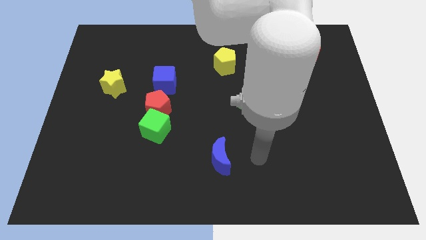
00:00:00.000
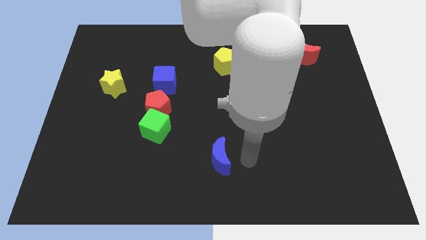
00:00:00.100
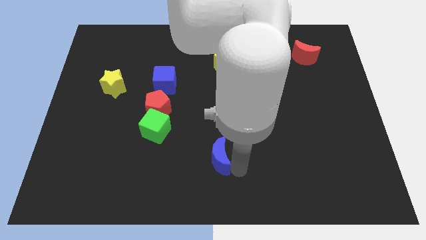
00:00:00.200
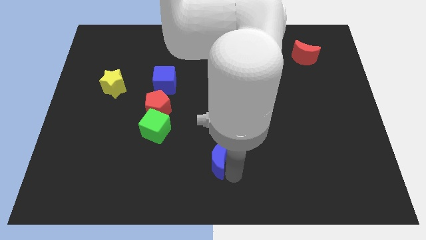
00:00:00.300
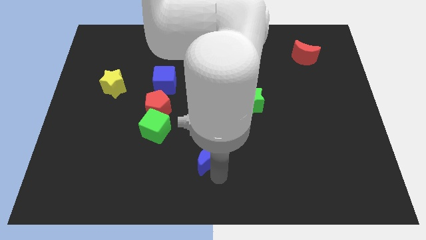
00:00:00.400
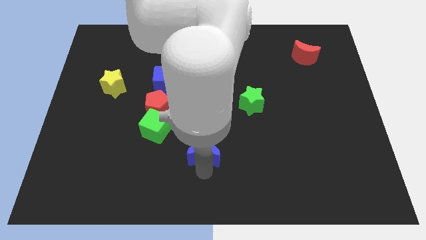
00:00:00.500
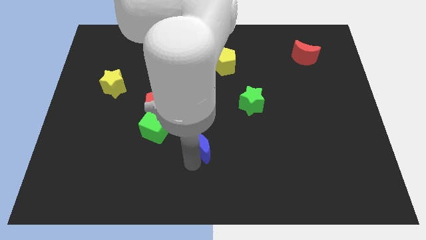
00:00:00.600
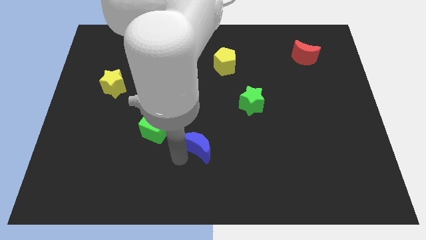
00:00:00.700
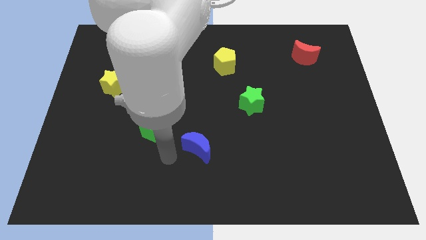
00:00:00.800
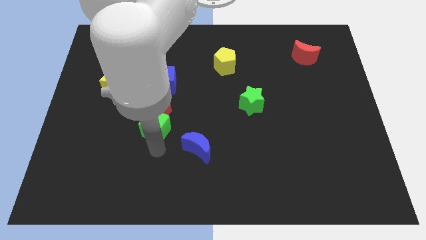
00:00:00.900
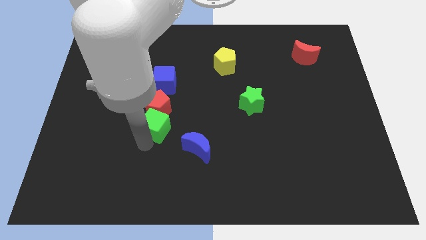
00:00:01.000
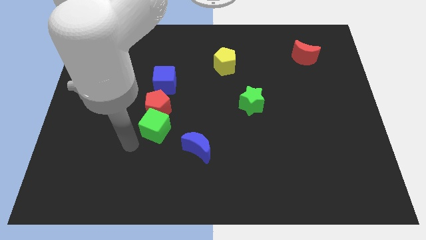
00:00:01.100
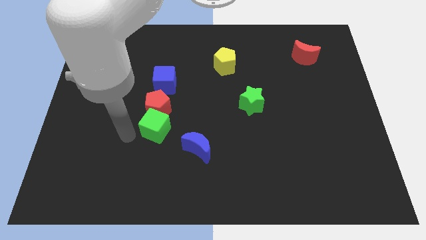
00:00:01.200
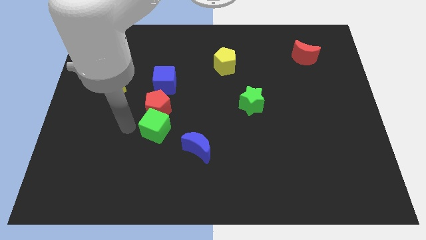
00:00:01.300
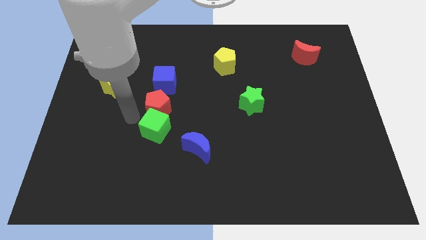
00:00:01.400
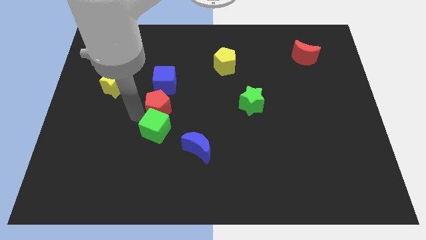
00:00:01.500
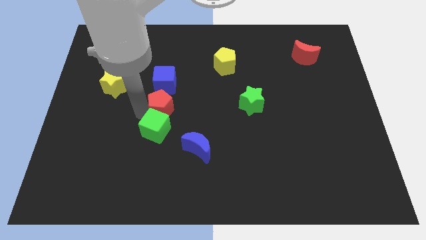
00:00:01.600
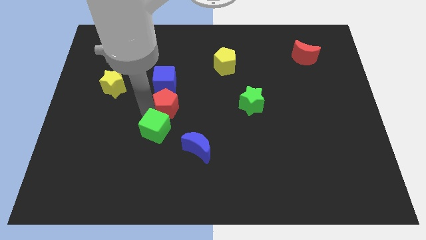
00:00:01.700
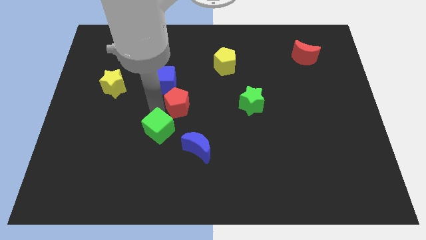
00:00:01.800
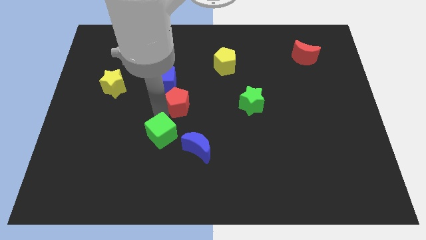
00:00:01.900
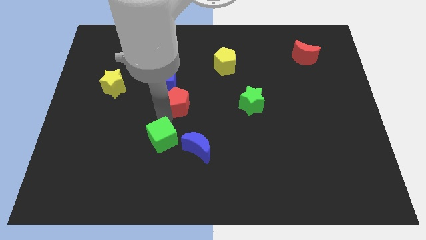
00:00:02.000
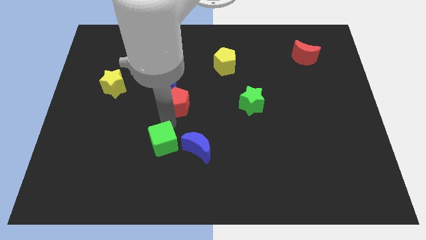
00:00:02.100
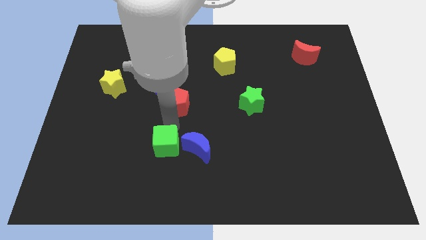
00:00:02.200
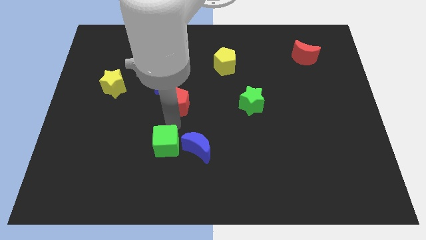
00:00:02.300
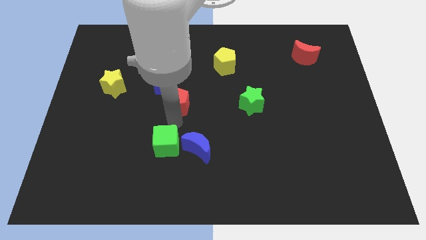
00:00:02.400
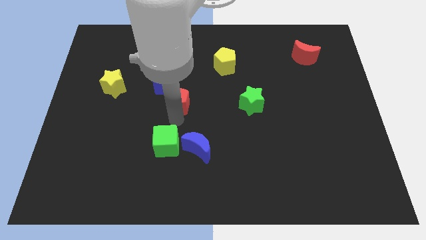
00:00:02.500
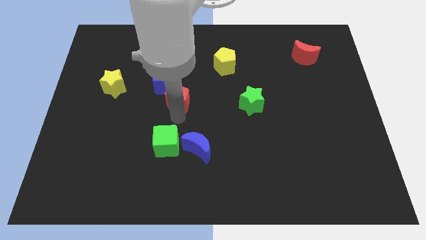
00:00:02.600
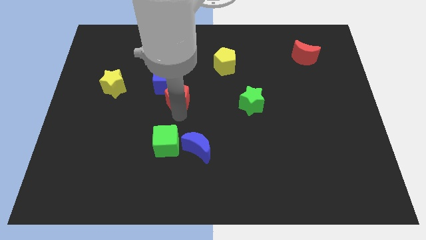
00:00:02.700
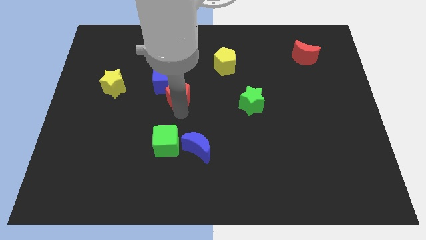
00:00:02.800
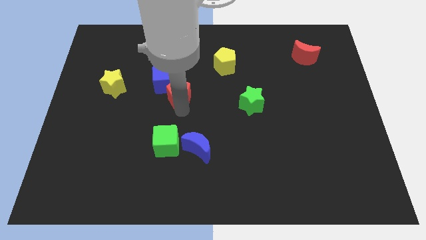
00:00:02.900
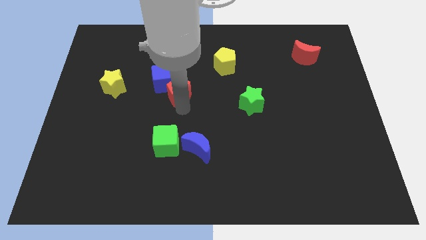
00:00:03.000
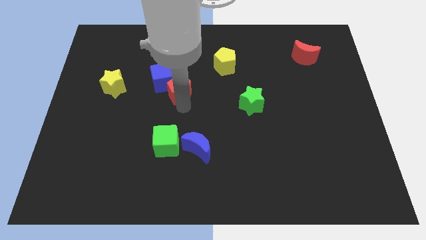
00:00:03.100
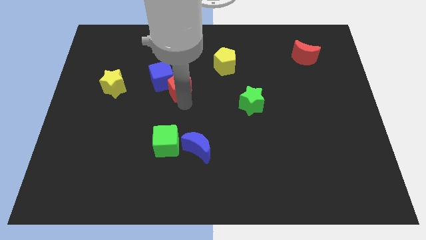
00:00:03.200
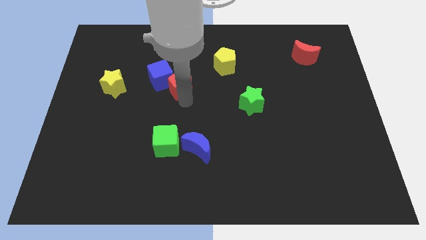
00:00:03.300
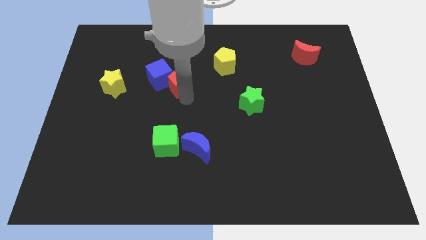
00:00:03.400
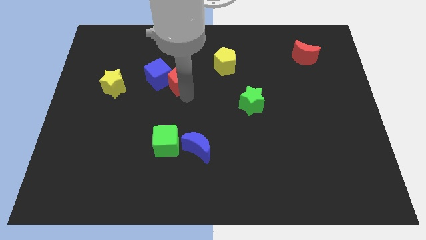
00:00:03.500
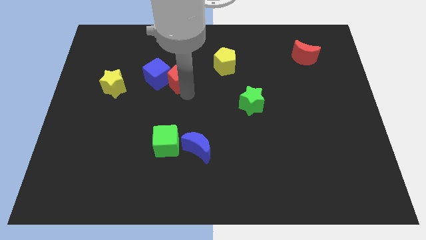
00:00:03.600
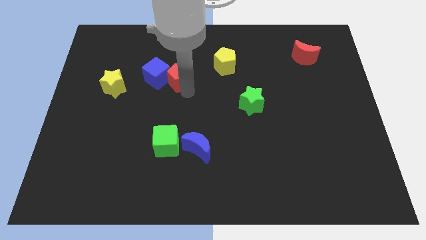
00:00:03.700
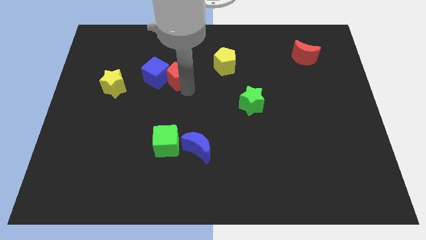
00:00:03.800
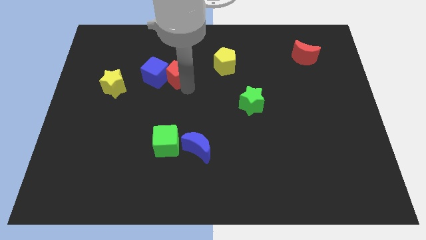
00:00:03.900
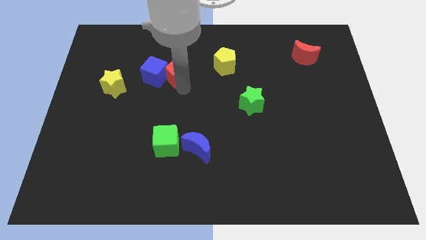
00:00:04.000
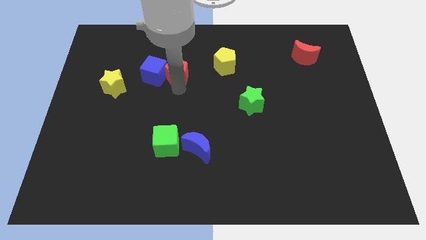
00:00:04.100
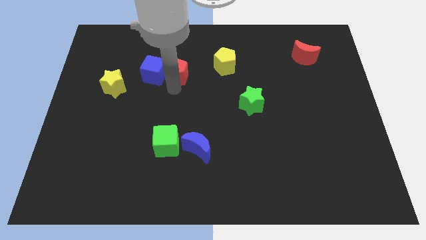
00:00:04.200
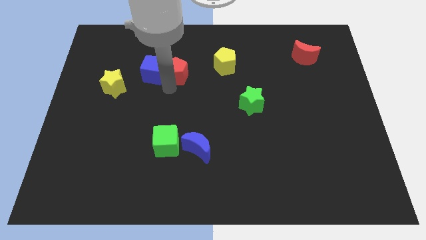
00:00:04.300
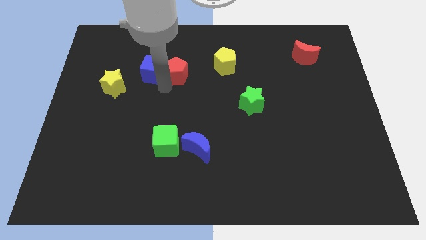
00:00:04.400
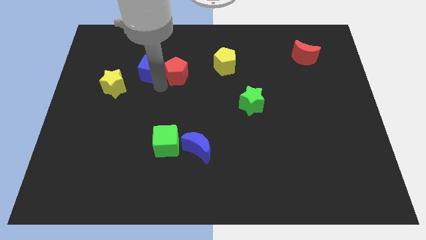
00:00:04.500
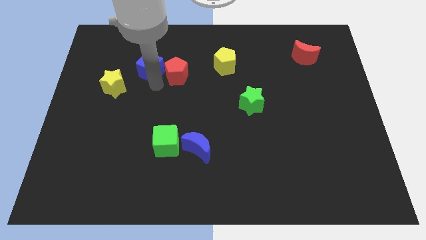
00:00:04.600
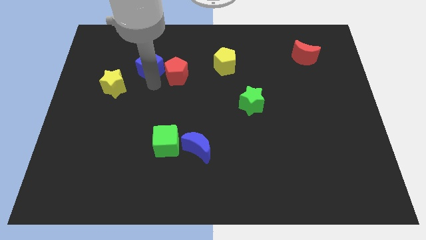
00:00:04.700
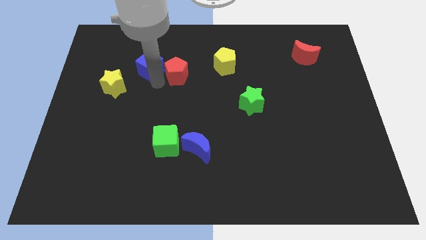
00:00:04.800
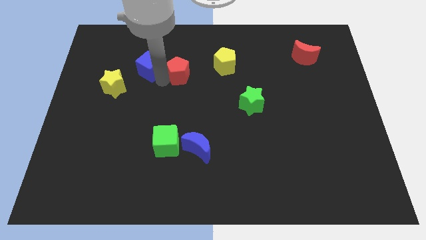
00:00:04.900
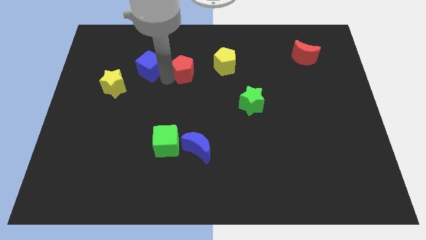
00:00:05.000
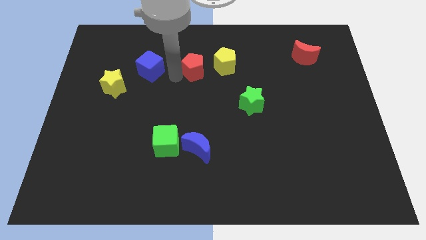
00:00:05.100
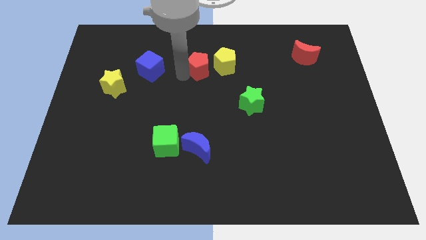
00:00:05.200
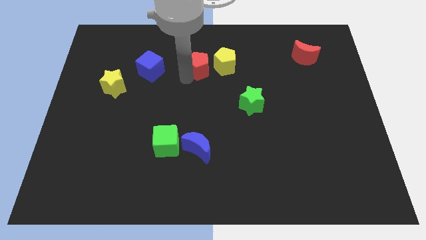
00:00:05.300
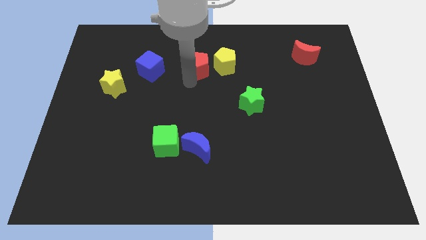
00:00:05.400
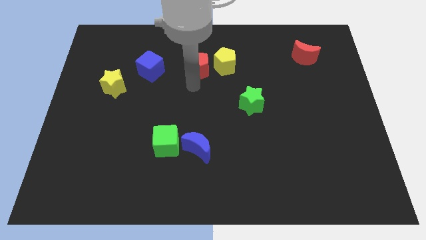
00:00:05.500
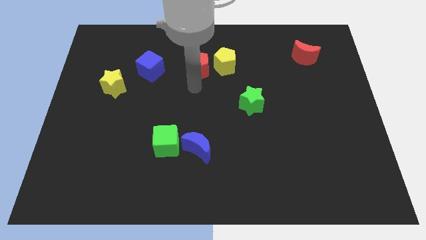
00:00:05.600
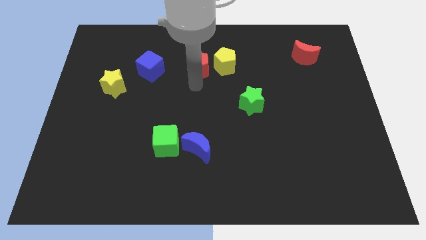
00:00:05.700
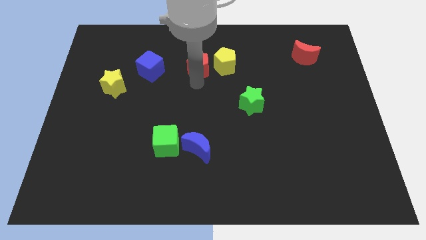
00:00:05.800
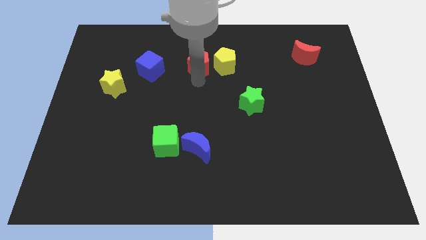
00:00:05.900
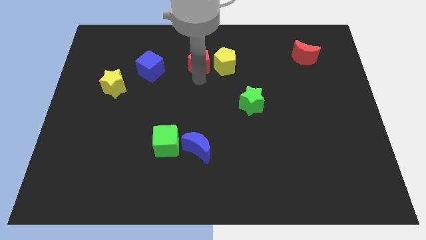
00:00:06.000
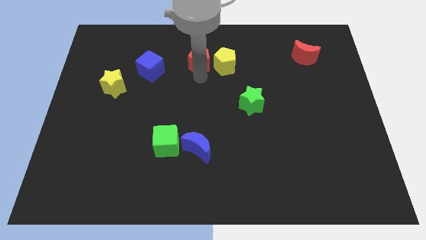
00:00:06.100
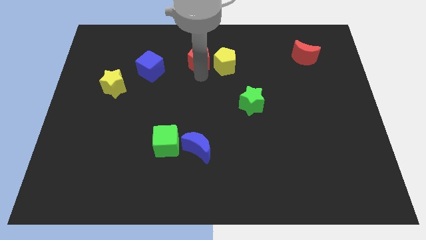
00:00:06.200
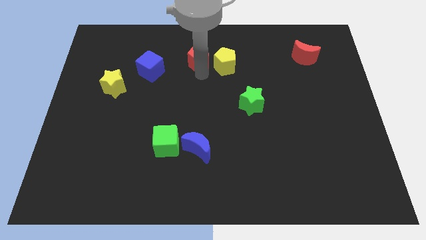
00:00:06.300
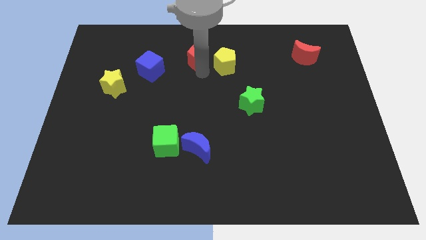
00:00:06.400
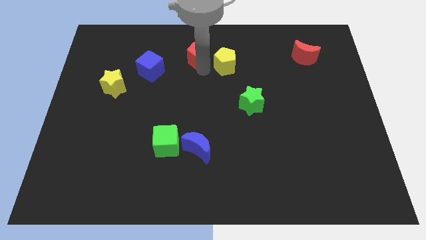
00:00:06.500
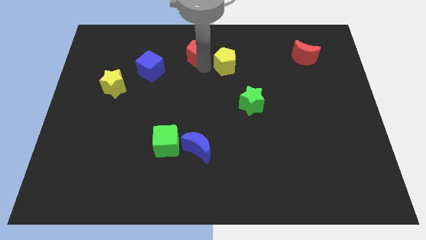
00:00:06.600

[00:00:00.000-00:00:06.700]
slide the red pentagon to the top
